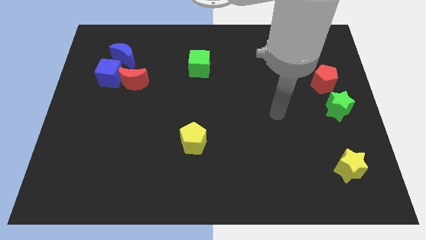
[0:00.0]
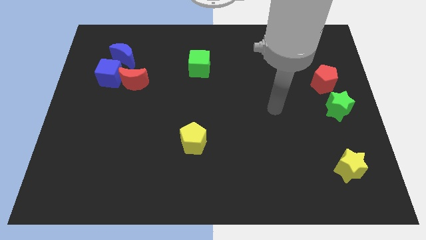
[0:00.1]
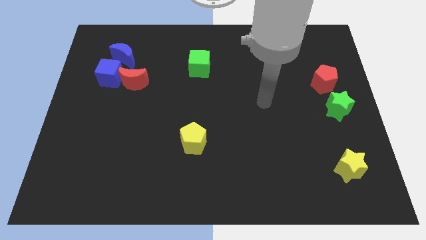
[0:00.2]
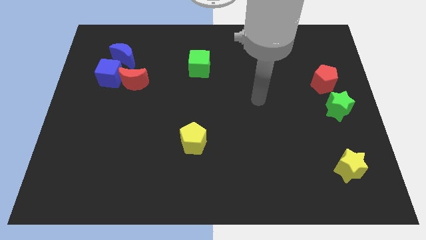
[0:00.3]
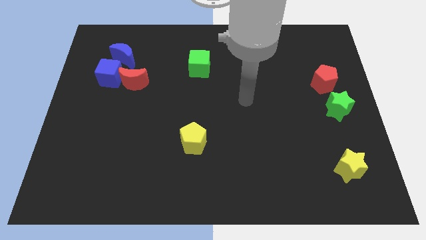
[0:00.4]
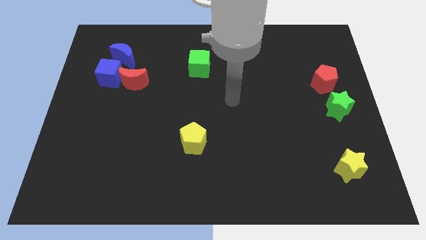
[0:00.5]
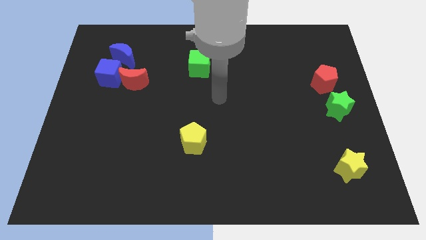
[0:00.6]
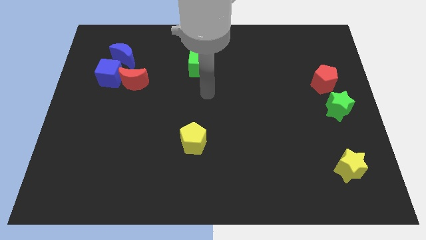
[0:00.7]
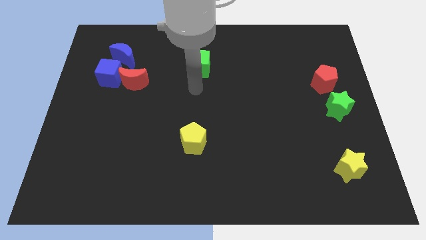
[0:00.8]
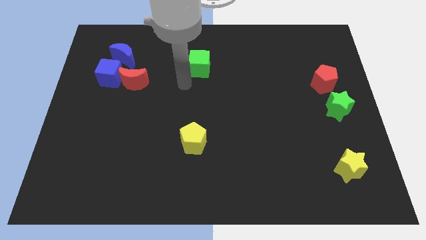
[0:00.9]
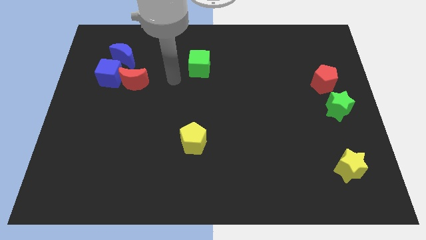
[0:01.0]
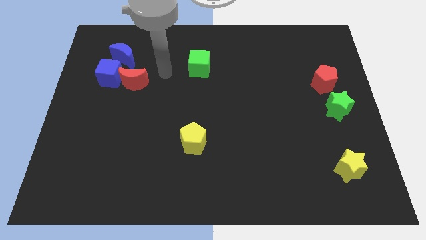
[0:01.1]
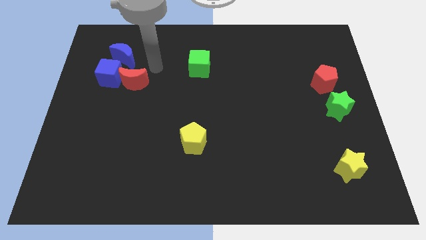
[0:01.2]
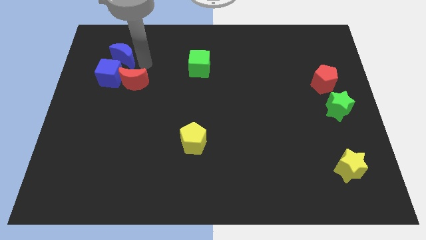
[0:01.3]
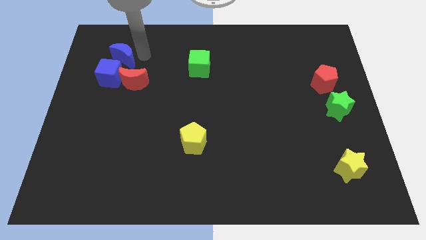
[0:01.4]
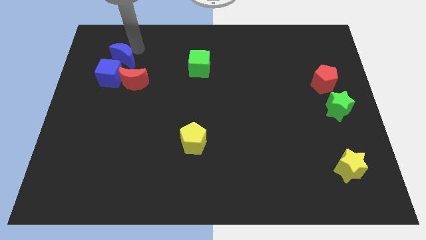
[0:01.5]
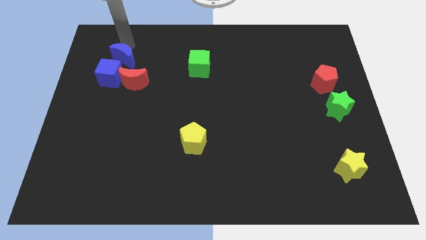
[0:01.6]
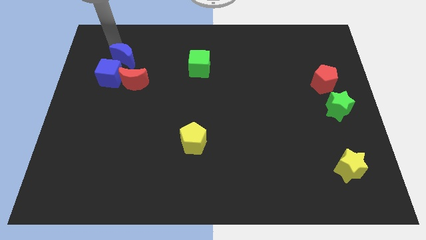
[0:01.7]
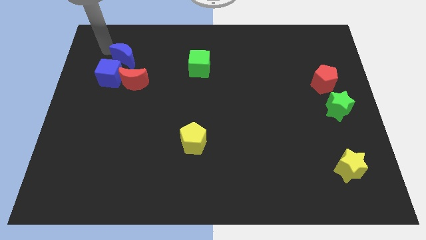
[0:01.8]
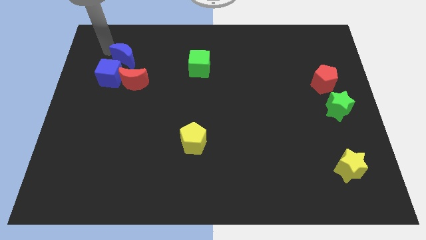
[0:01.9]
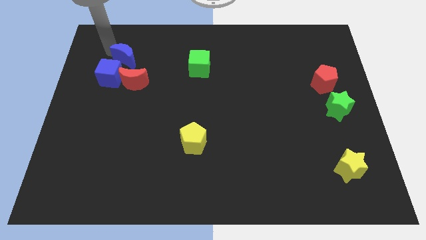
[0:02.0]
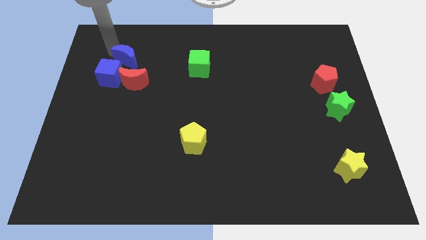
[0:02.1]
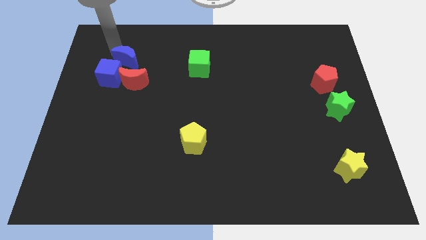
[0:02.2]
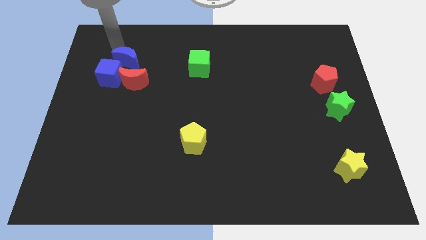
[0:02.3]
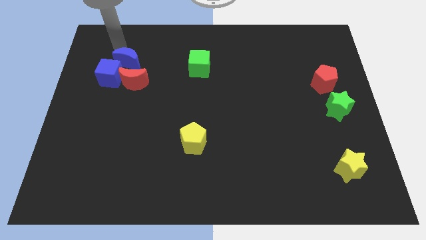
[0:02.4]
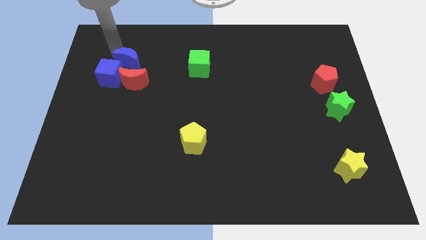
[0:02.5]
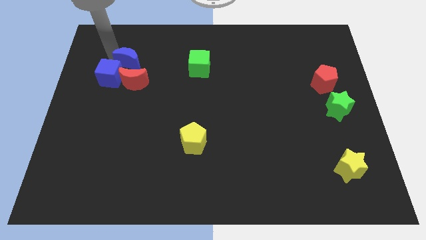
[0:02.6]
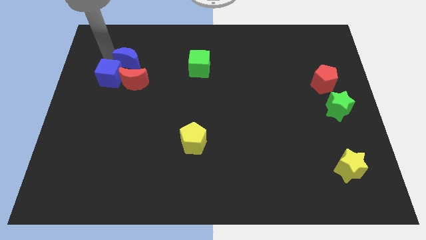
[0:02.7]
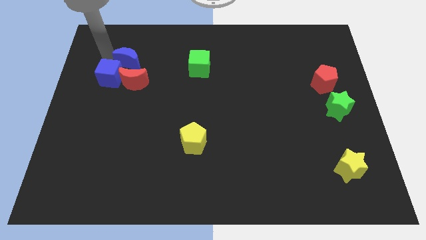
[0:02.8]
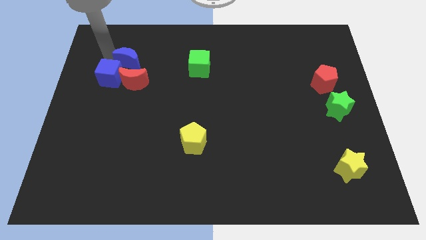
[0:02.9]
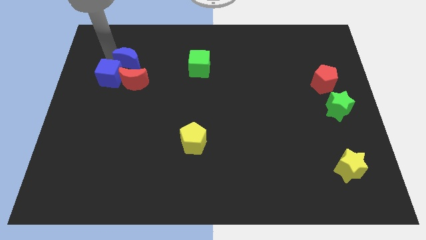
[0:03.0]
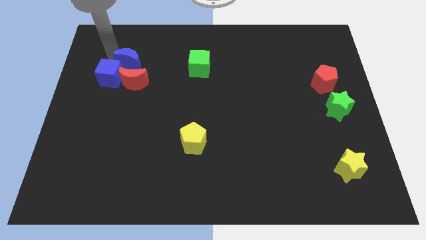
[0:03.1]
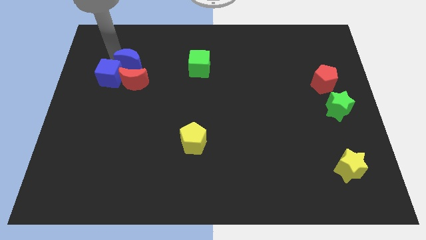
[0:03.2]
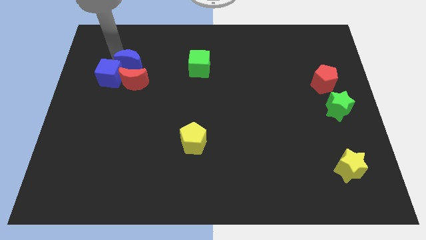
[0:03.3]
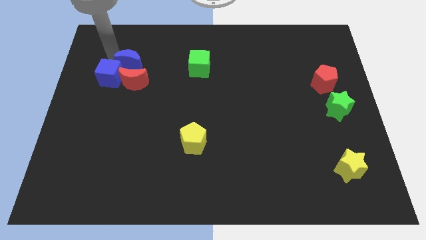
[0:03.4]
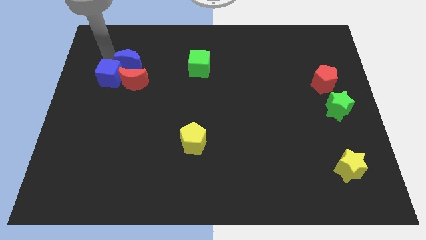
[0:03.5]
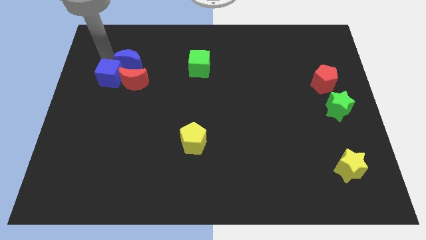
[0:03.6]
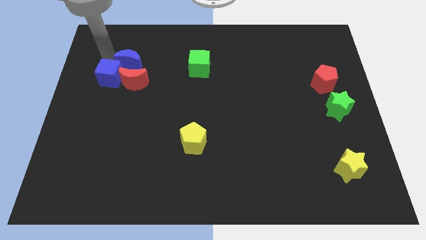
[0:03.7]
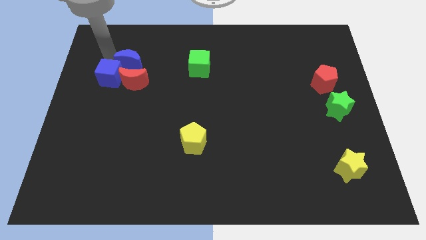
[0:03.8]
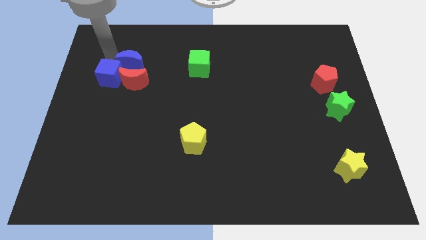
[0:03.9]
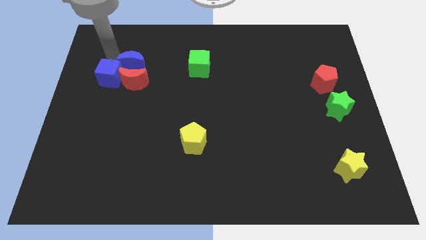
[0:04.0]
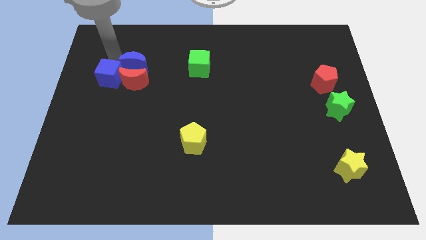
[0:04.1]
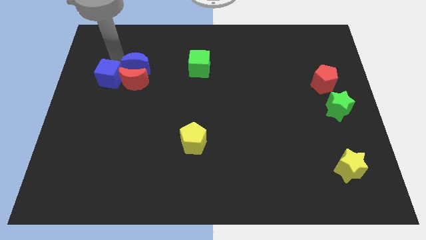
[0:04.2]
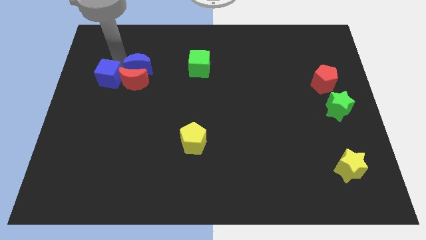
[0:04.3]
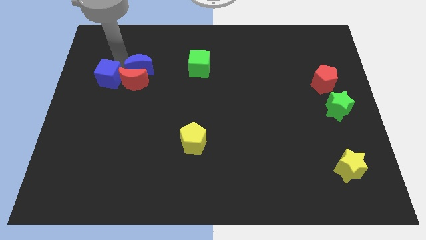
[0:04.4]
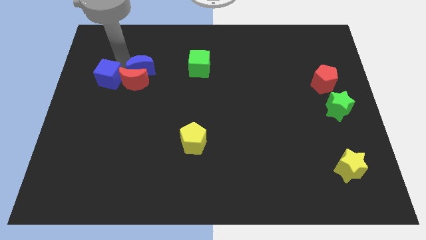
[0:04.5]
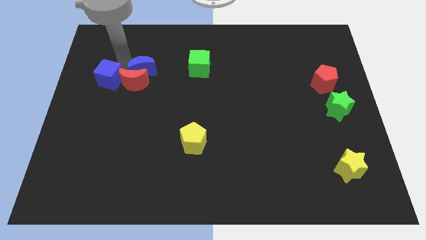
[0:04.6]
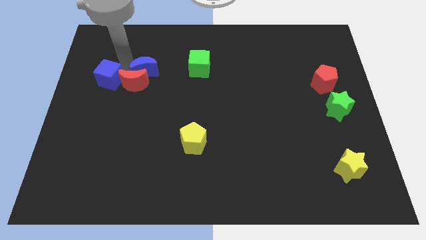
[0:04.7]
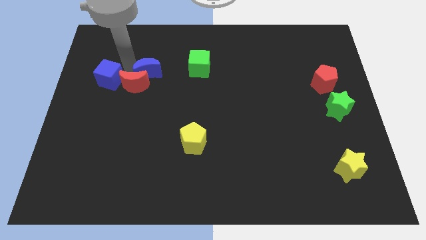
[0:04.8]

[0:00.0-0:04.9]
push the blue moon to the right side of the red moon

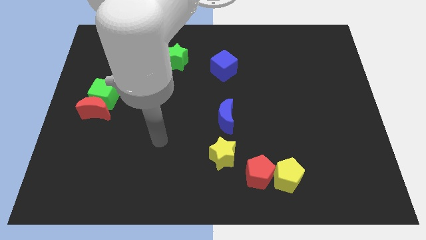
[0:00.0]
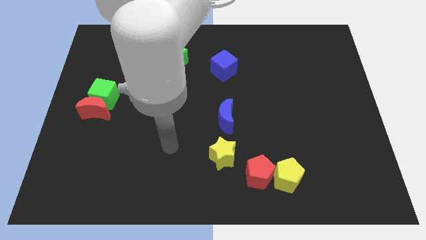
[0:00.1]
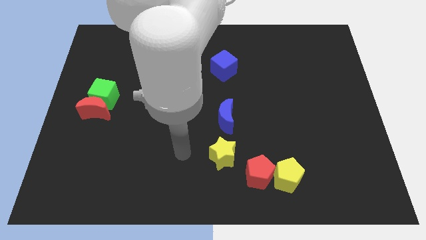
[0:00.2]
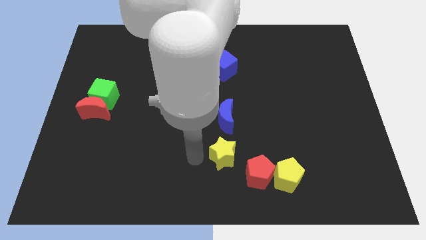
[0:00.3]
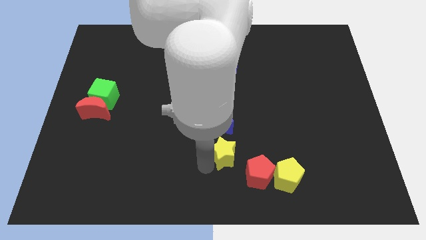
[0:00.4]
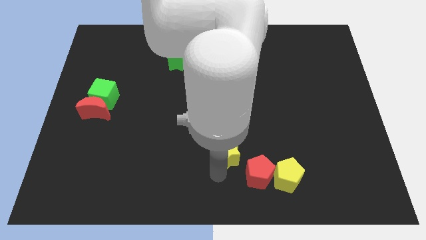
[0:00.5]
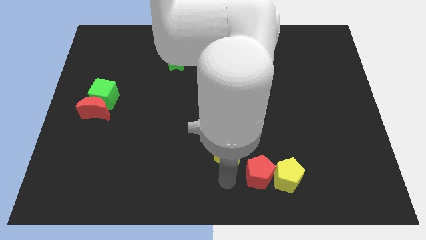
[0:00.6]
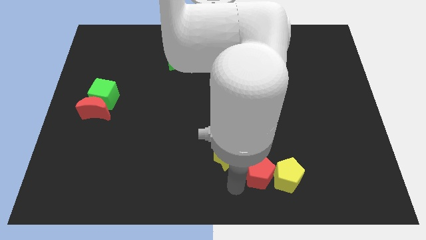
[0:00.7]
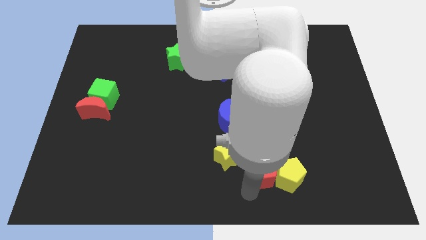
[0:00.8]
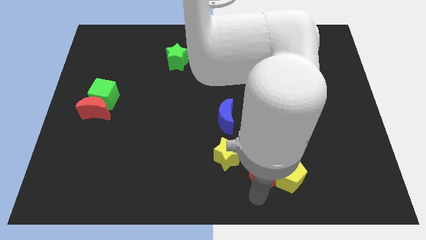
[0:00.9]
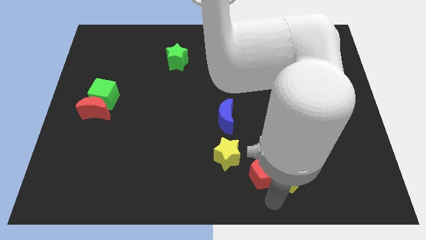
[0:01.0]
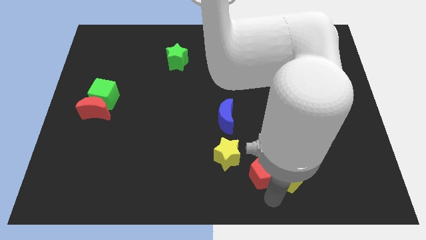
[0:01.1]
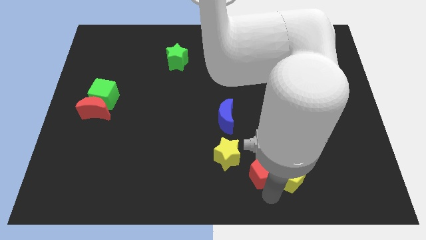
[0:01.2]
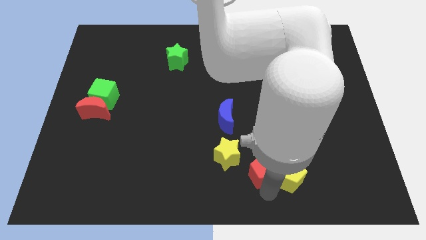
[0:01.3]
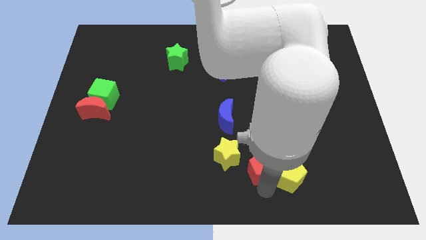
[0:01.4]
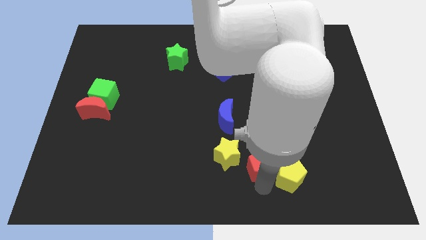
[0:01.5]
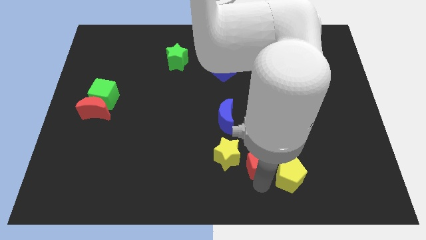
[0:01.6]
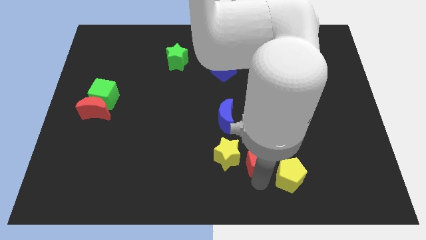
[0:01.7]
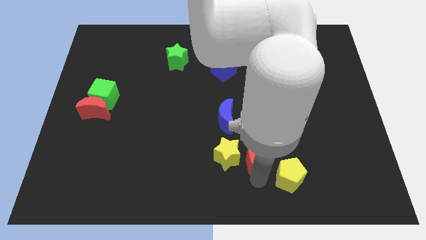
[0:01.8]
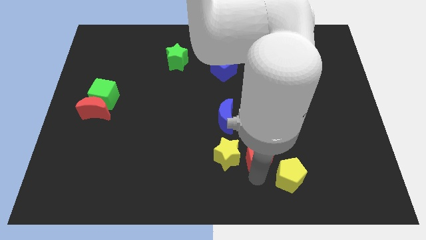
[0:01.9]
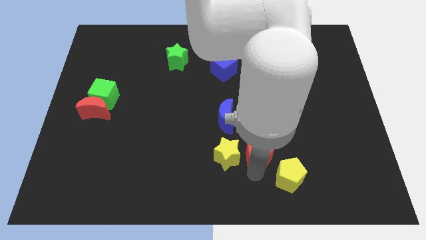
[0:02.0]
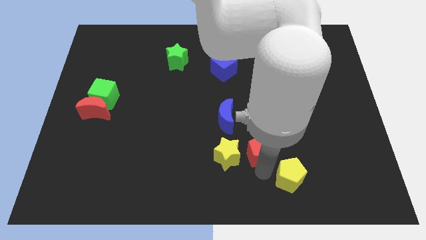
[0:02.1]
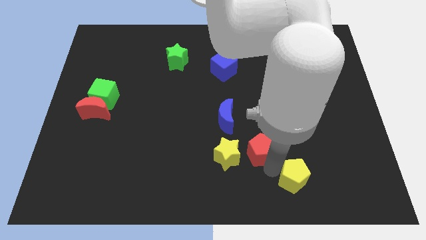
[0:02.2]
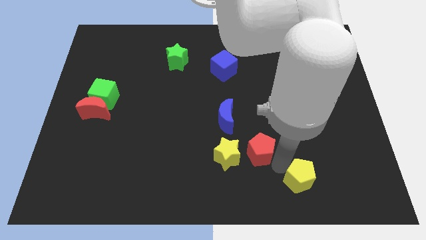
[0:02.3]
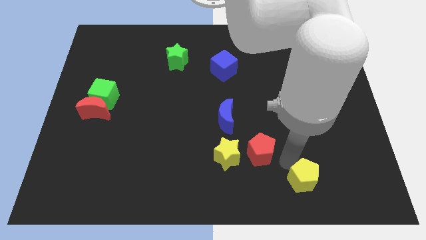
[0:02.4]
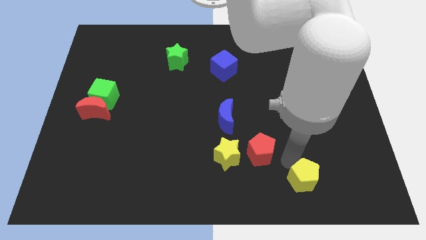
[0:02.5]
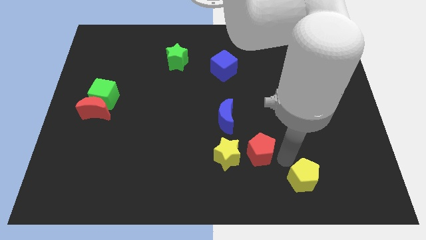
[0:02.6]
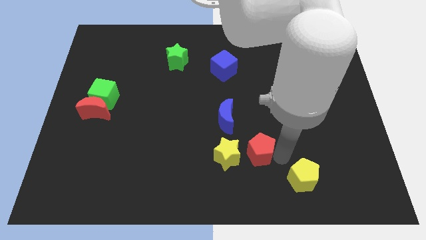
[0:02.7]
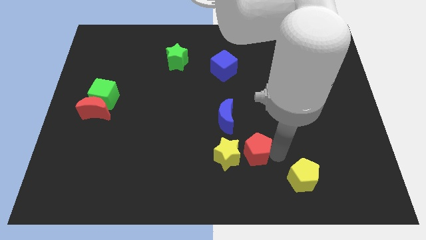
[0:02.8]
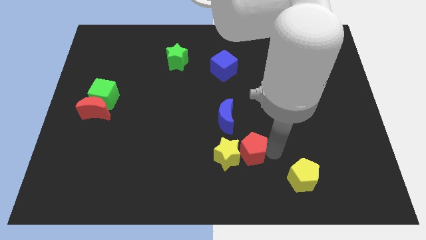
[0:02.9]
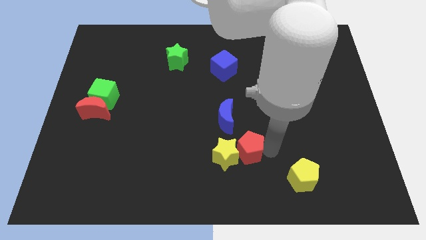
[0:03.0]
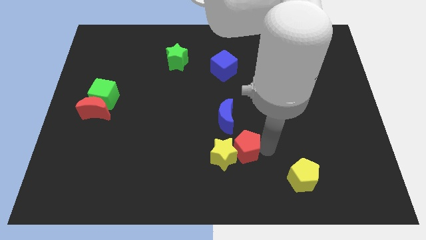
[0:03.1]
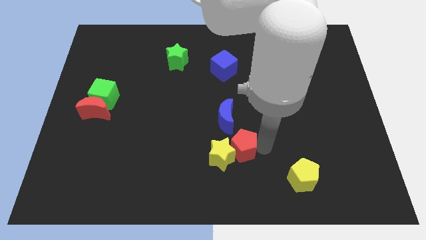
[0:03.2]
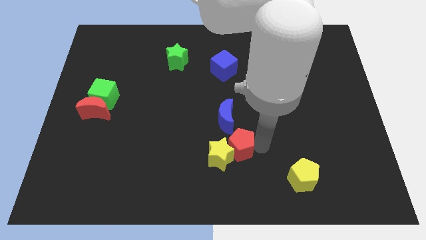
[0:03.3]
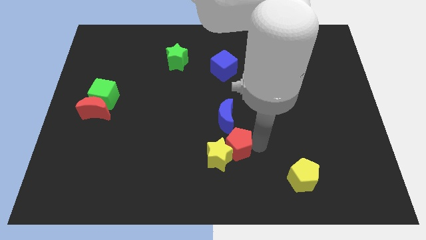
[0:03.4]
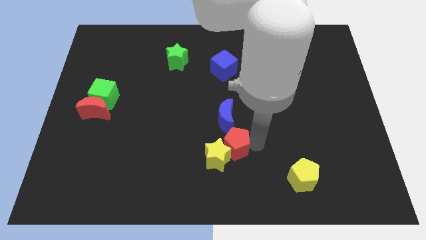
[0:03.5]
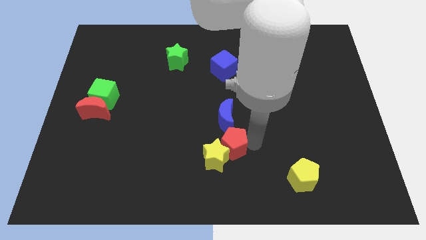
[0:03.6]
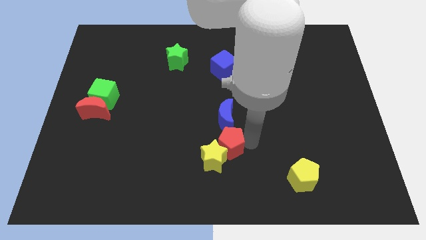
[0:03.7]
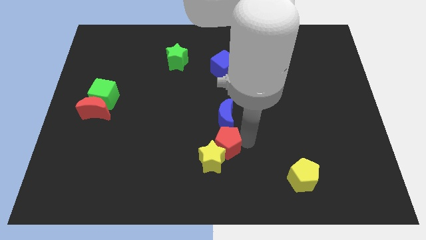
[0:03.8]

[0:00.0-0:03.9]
slide the red pentagon to the bottom left side of the blue moon
